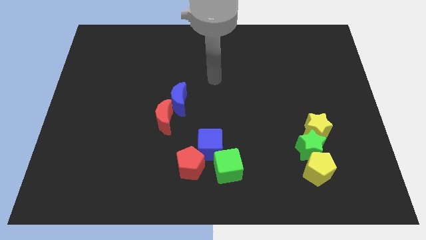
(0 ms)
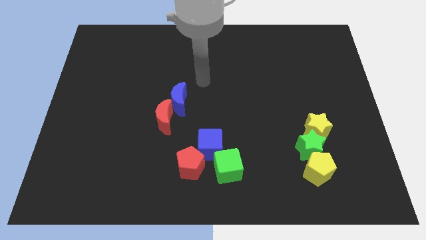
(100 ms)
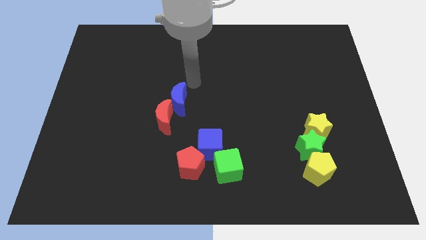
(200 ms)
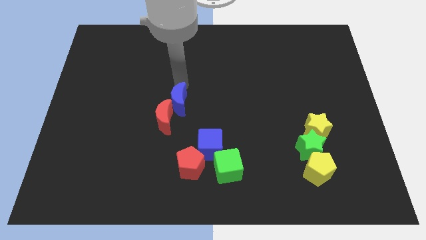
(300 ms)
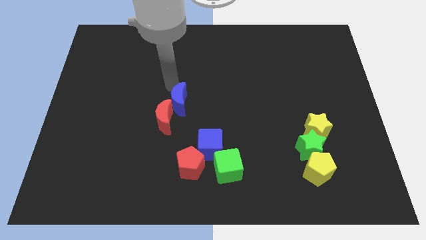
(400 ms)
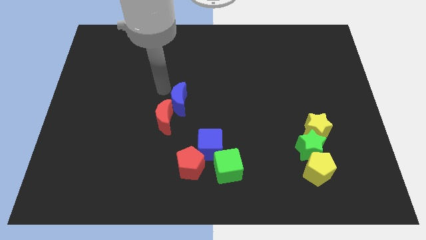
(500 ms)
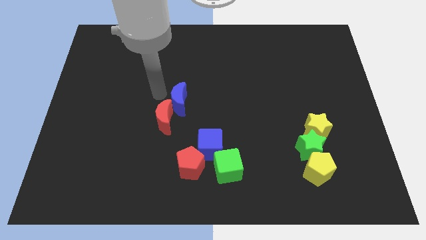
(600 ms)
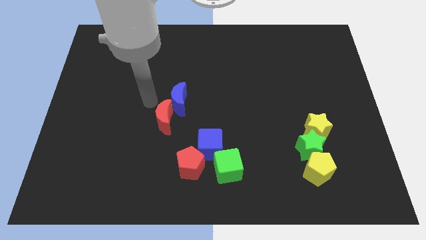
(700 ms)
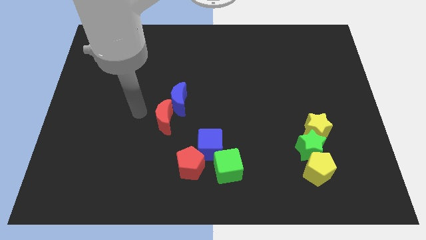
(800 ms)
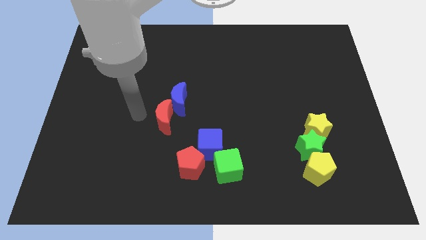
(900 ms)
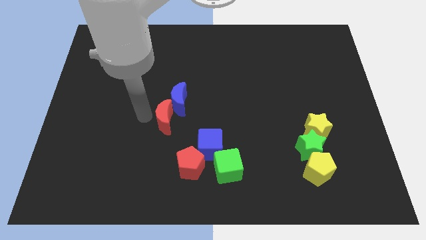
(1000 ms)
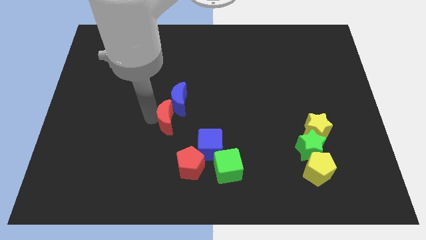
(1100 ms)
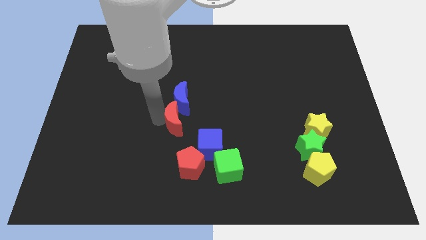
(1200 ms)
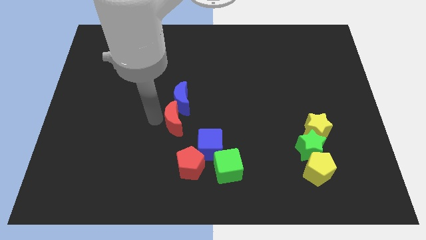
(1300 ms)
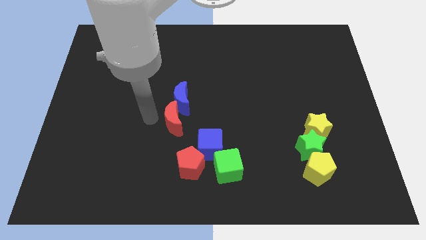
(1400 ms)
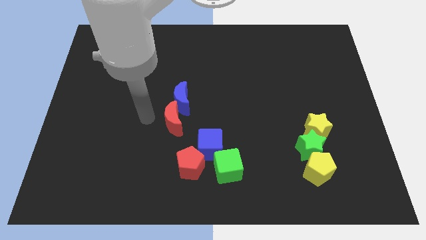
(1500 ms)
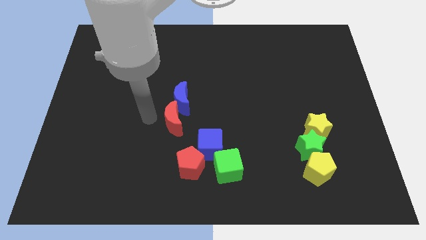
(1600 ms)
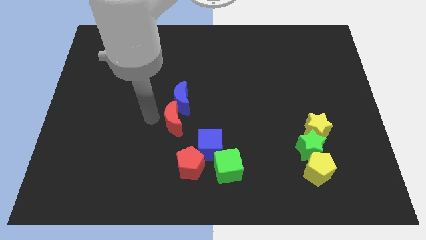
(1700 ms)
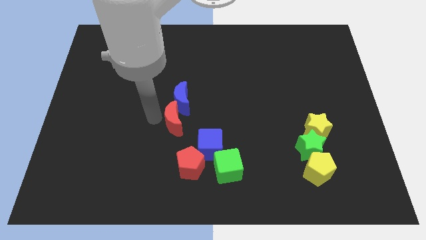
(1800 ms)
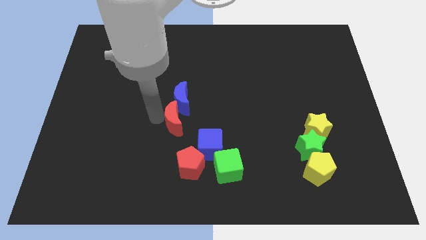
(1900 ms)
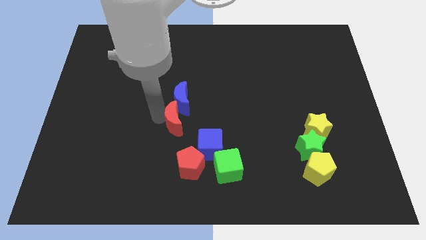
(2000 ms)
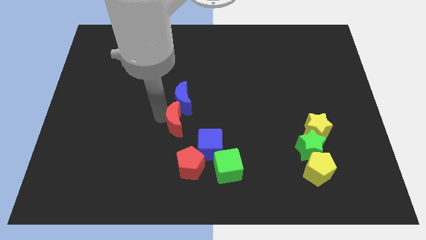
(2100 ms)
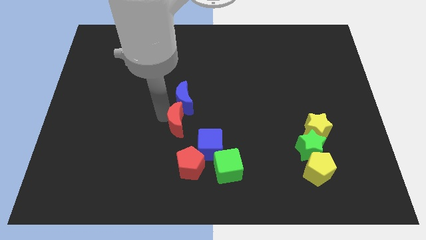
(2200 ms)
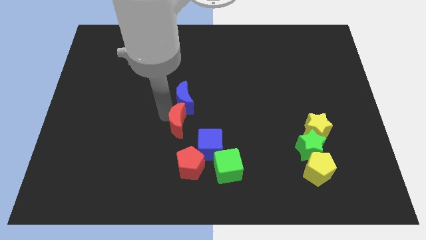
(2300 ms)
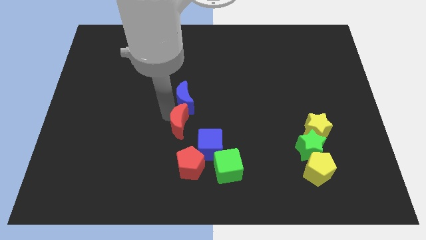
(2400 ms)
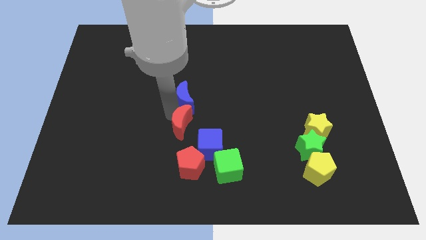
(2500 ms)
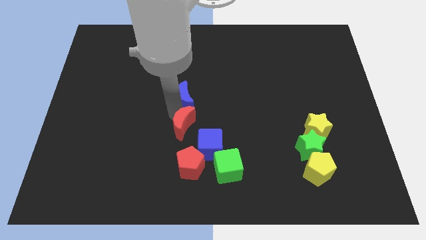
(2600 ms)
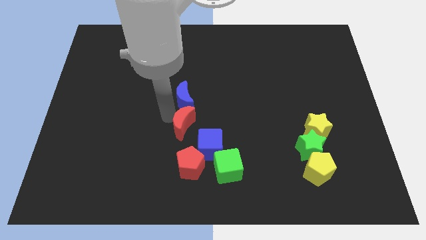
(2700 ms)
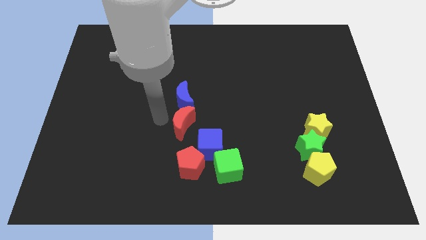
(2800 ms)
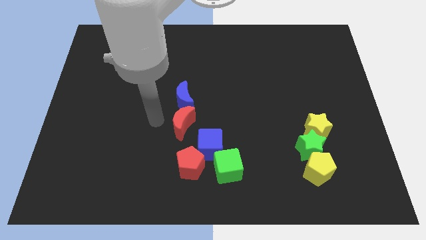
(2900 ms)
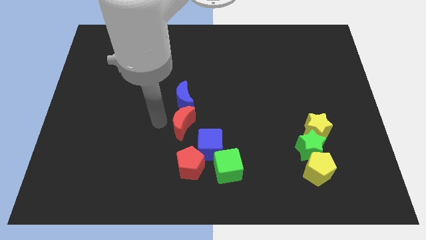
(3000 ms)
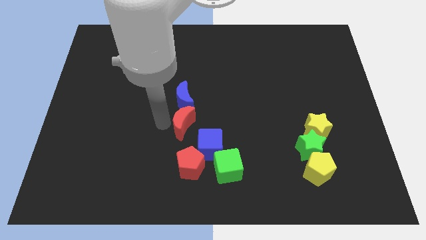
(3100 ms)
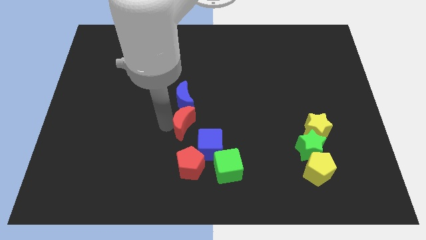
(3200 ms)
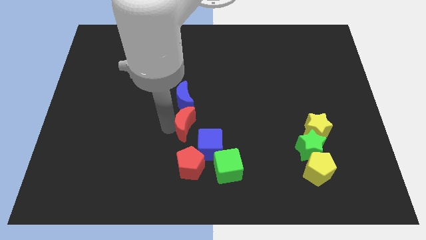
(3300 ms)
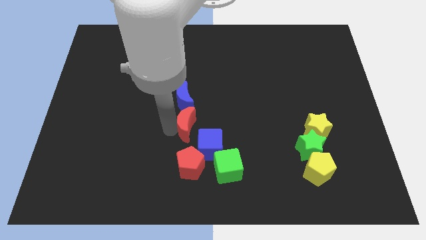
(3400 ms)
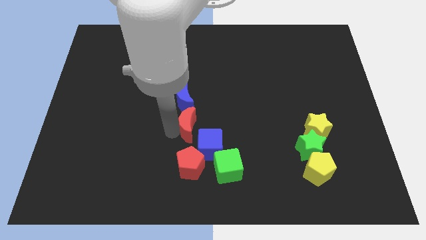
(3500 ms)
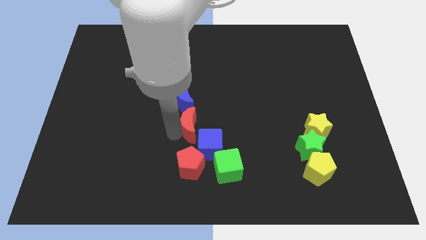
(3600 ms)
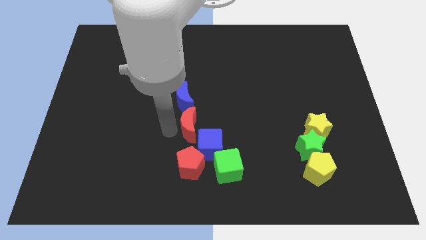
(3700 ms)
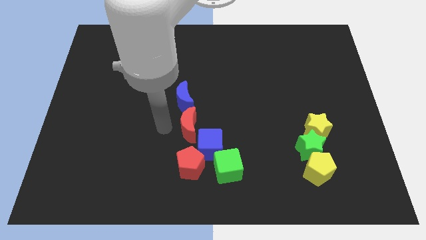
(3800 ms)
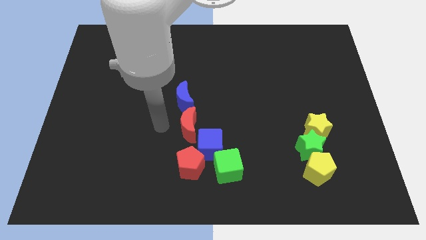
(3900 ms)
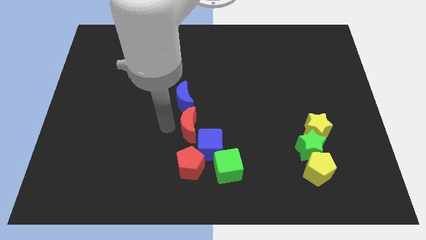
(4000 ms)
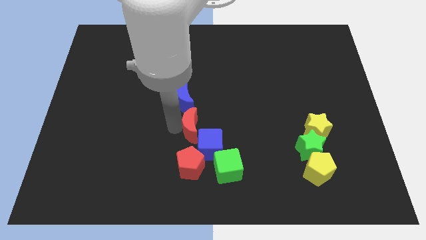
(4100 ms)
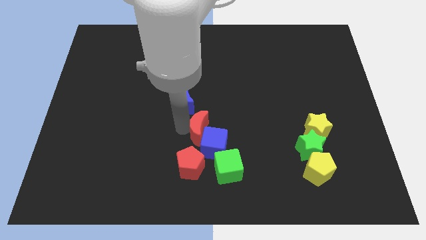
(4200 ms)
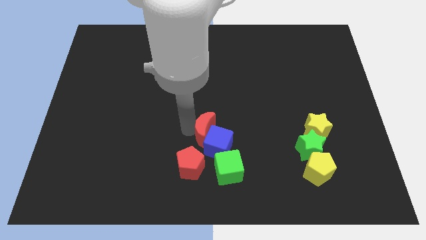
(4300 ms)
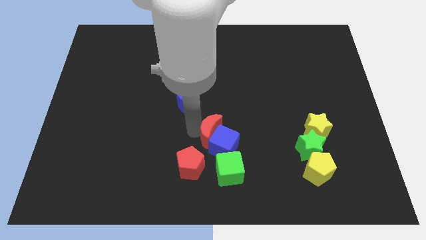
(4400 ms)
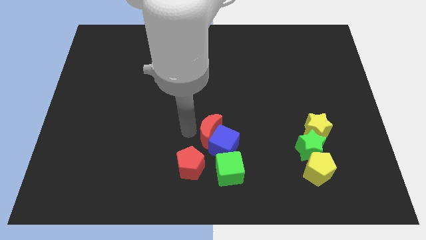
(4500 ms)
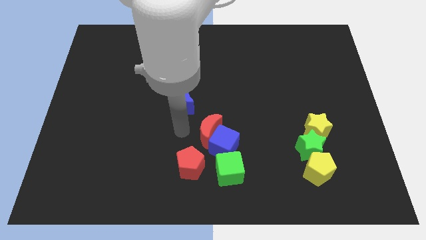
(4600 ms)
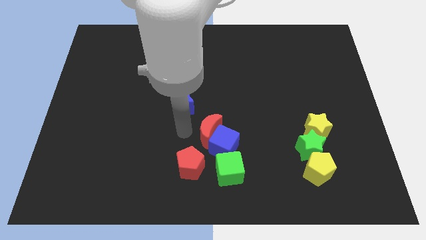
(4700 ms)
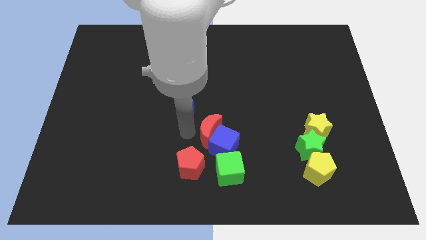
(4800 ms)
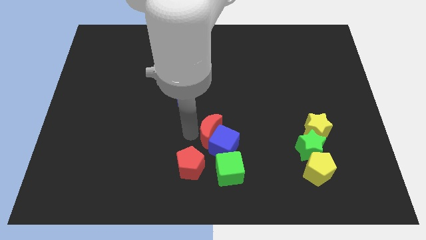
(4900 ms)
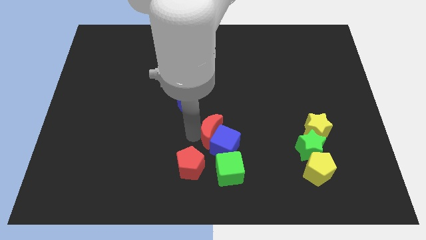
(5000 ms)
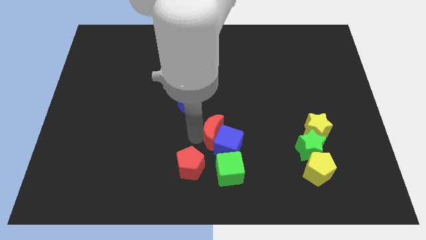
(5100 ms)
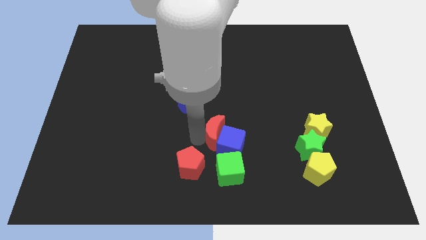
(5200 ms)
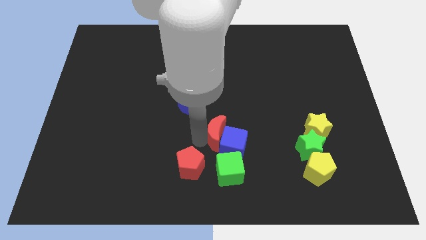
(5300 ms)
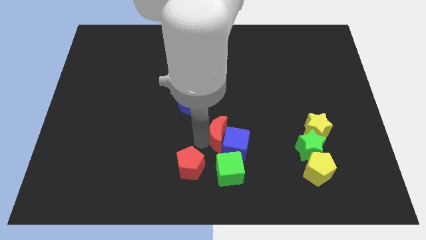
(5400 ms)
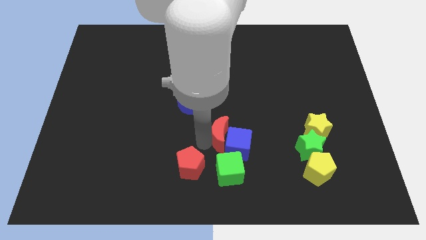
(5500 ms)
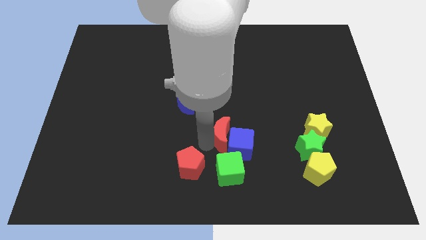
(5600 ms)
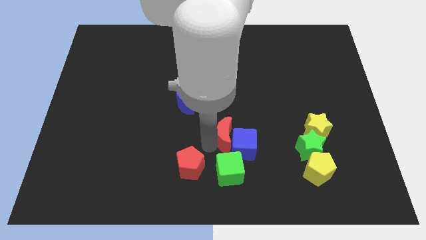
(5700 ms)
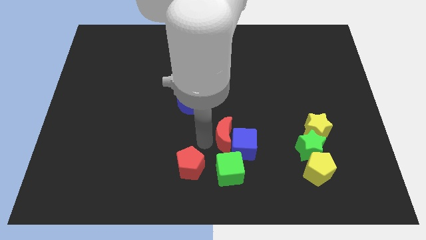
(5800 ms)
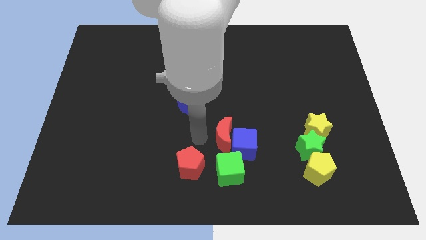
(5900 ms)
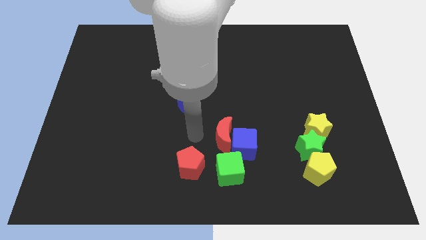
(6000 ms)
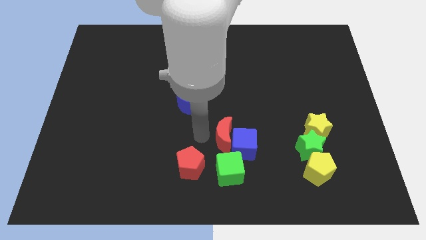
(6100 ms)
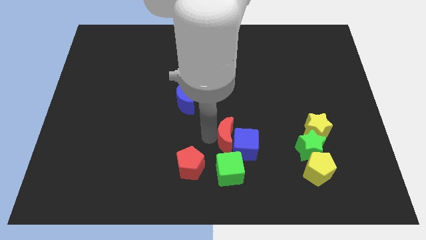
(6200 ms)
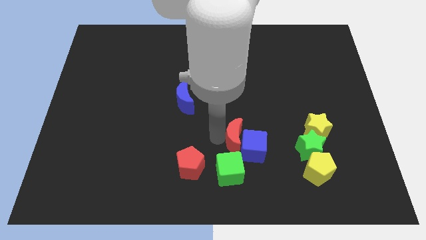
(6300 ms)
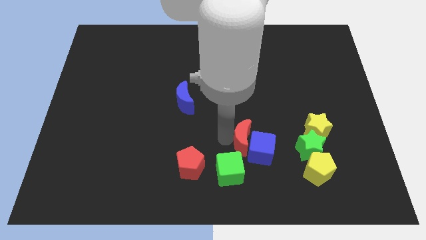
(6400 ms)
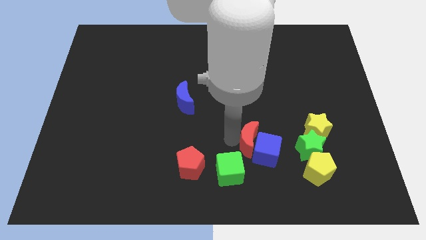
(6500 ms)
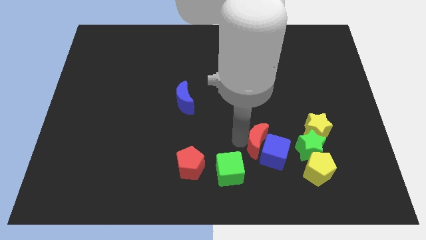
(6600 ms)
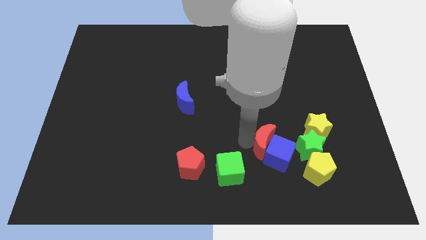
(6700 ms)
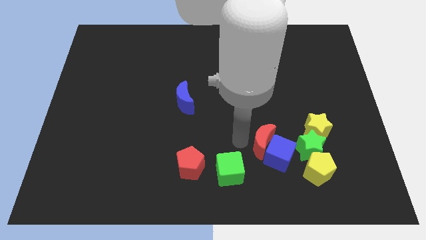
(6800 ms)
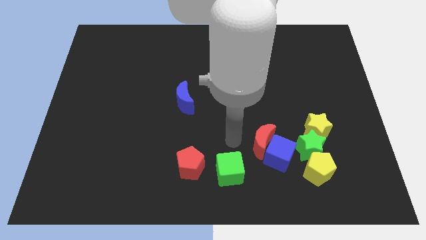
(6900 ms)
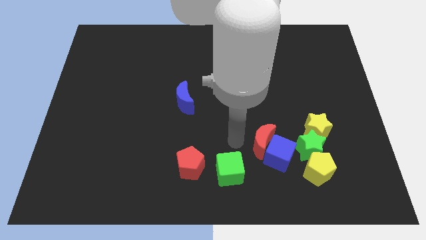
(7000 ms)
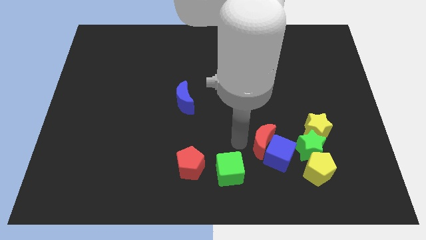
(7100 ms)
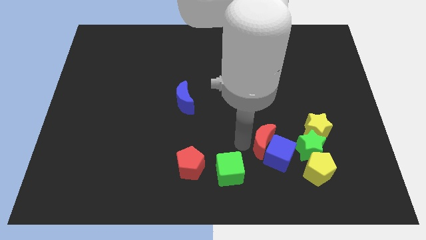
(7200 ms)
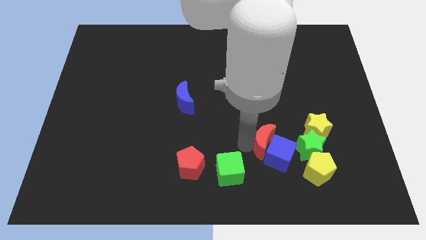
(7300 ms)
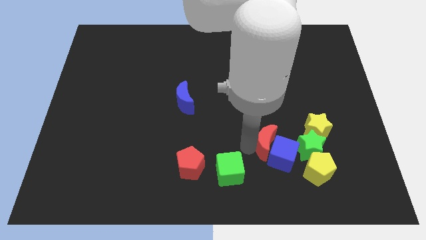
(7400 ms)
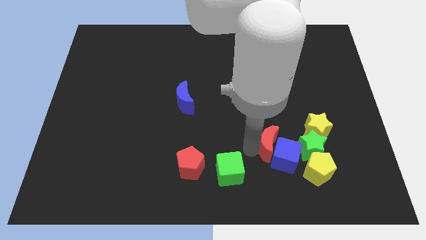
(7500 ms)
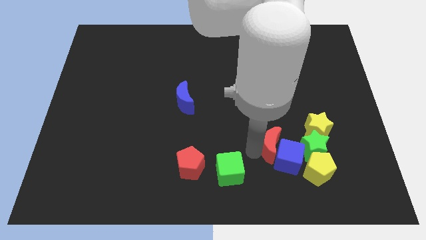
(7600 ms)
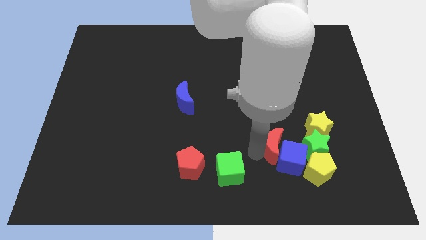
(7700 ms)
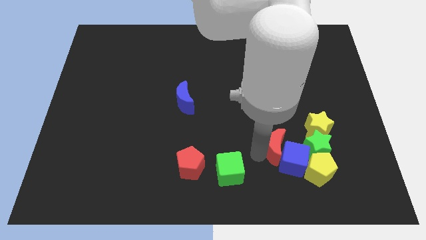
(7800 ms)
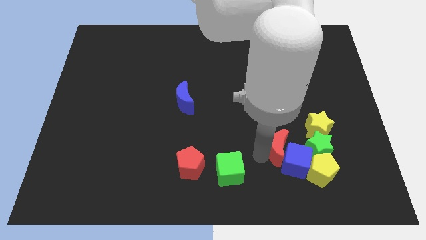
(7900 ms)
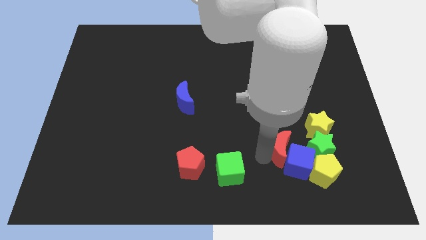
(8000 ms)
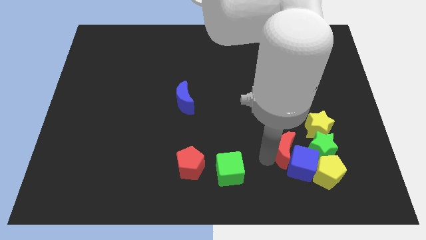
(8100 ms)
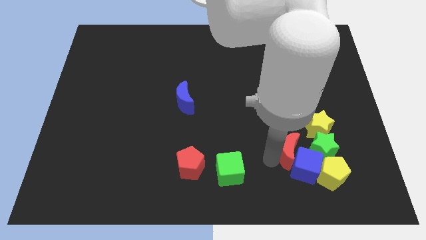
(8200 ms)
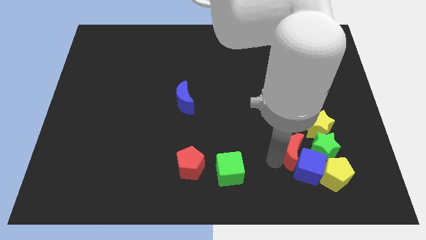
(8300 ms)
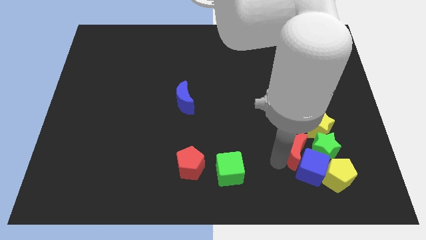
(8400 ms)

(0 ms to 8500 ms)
put the red moon towards the green star
